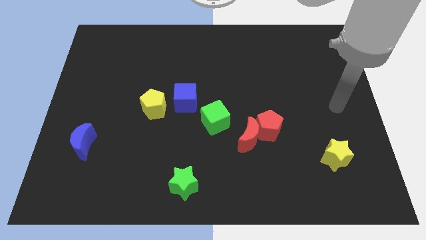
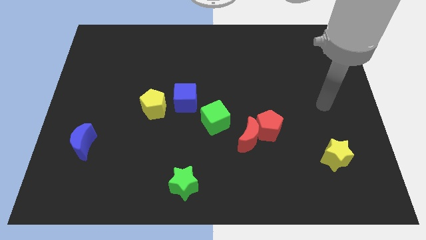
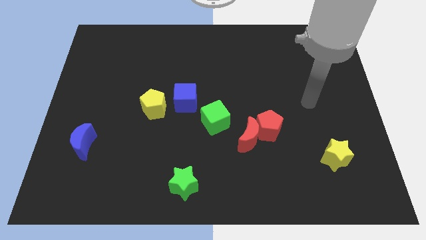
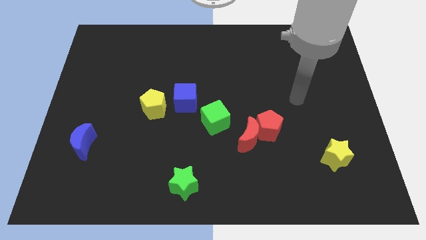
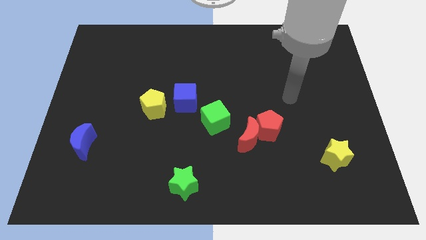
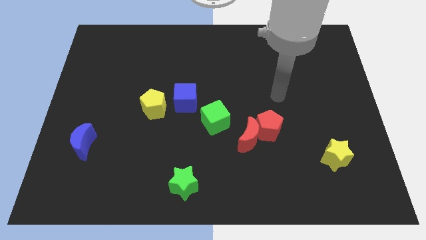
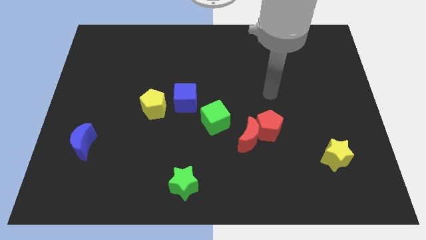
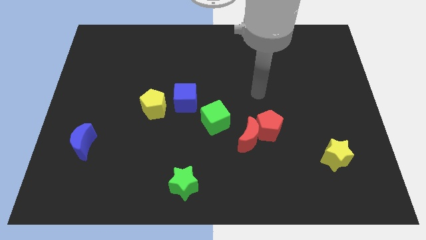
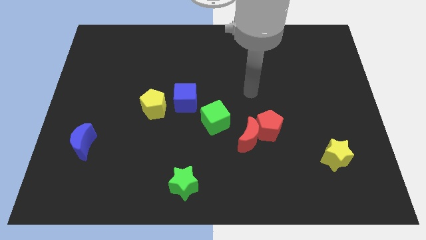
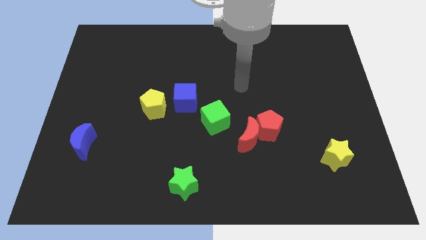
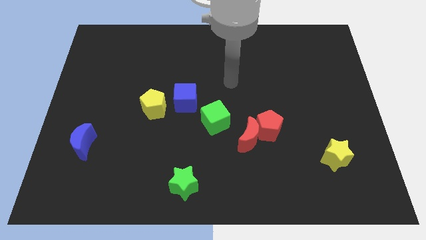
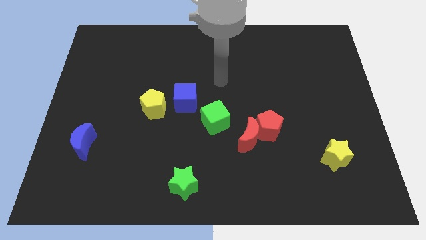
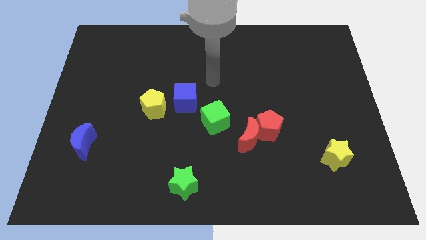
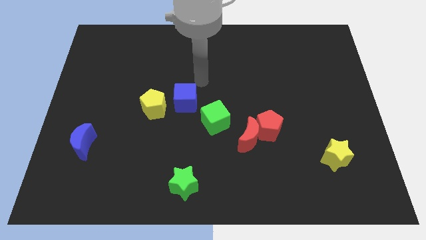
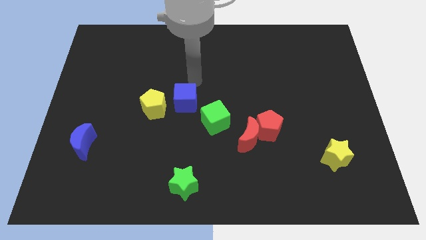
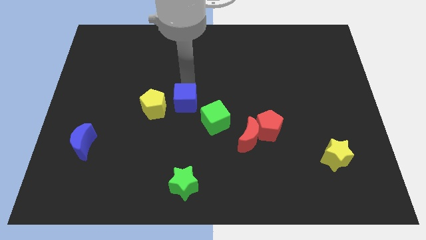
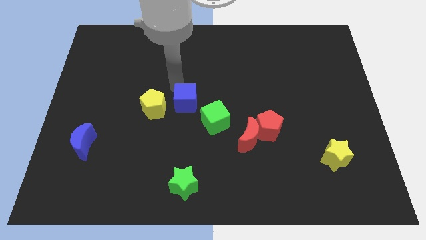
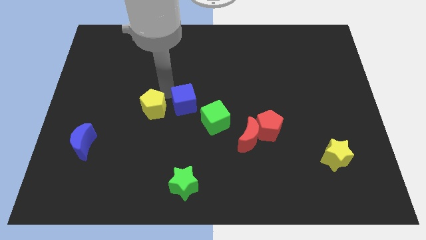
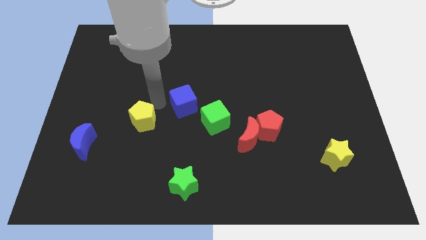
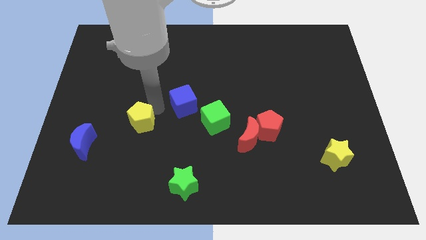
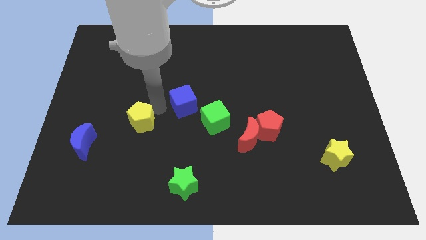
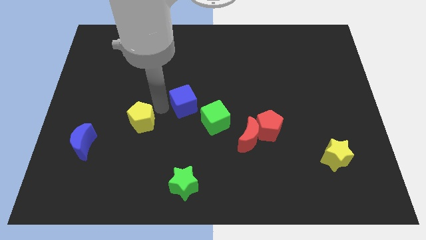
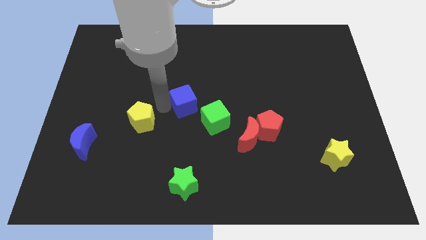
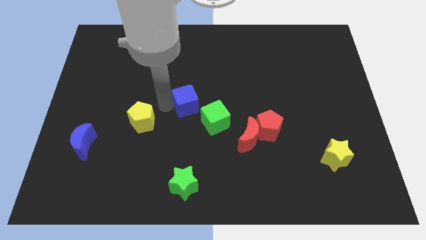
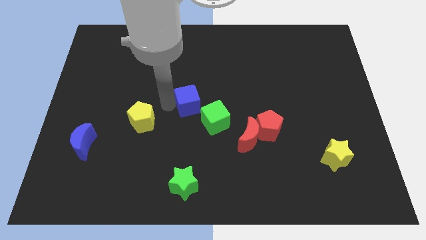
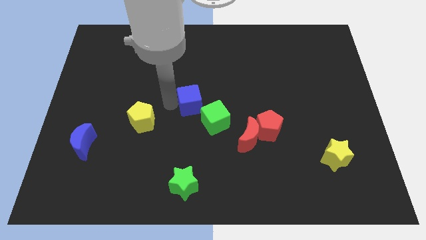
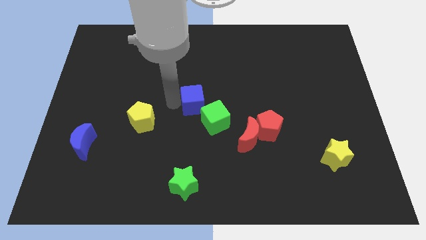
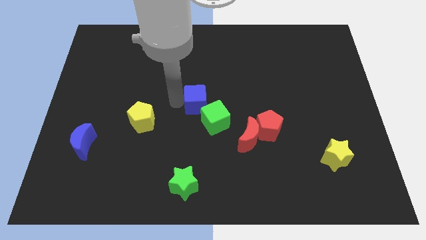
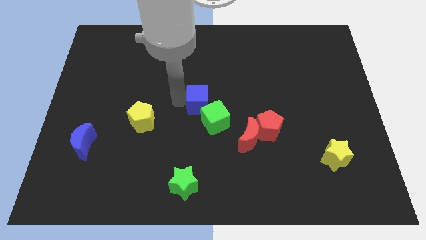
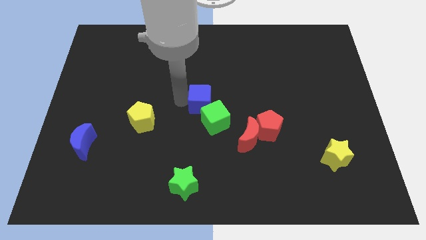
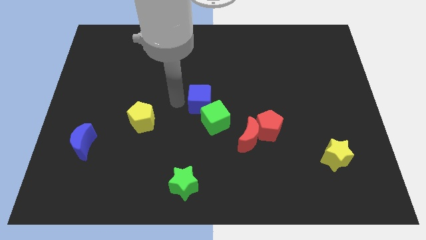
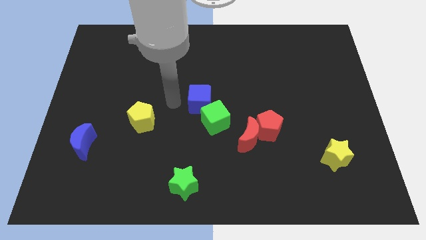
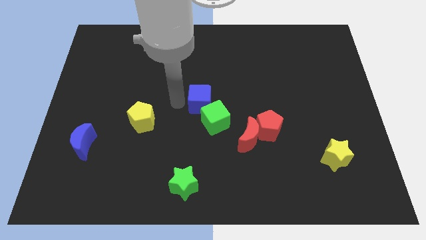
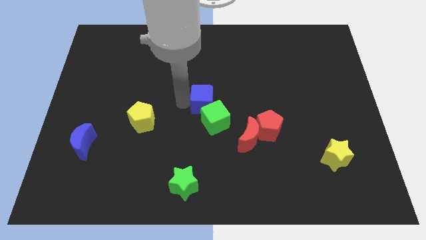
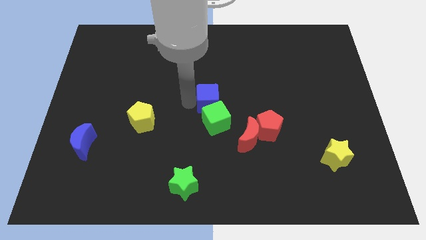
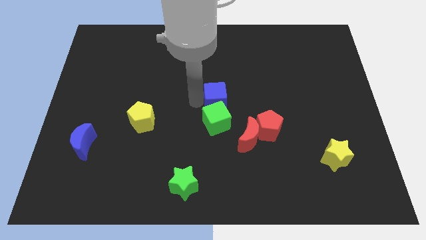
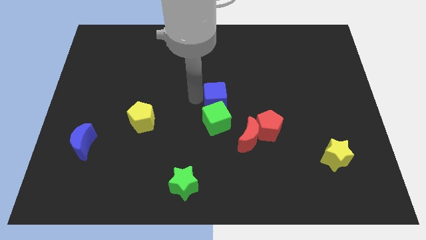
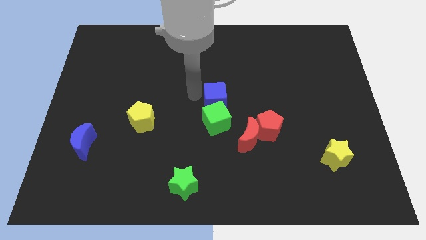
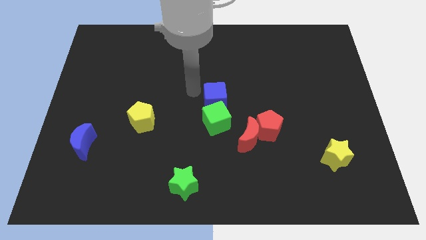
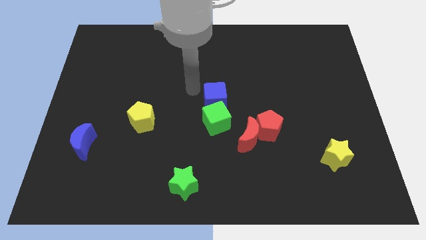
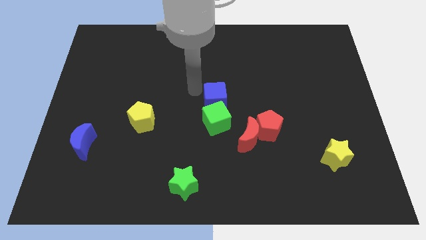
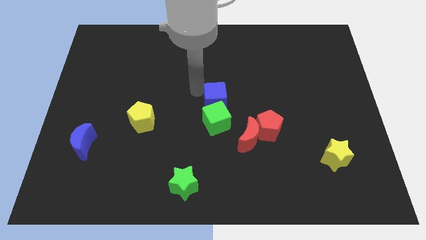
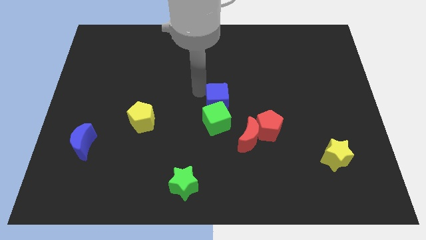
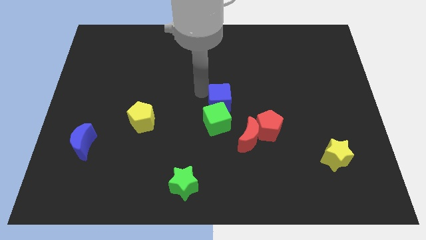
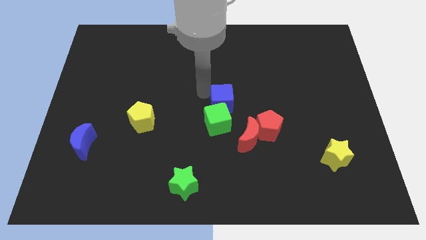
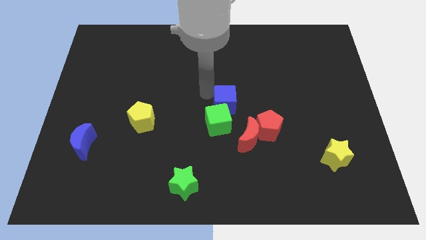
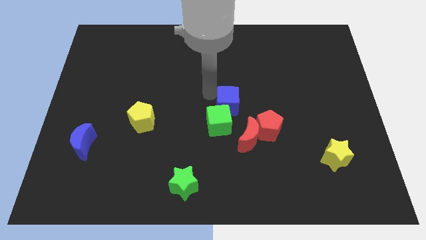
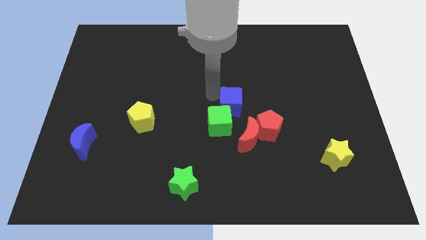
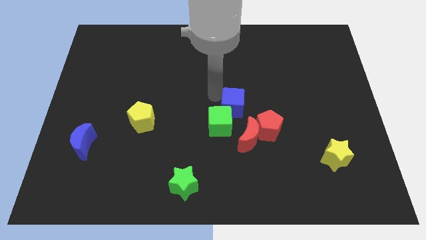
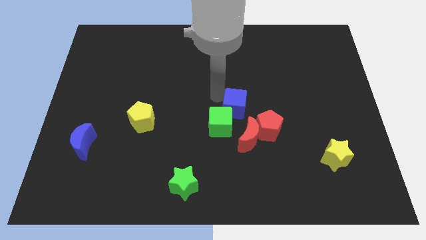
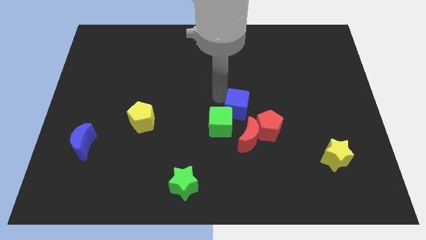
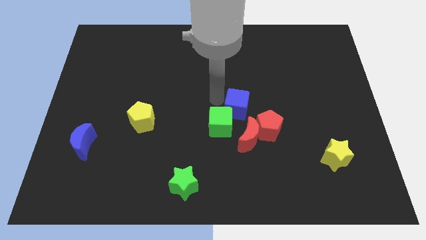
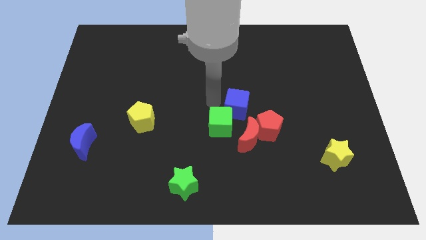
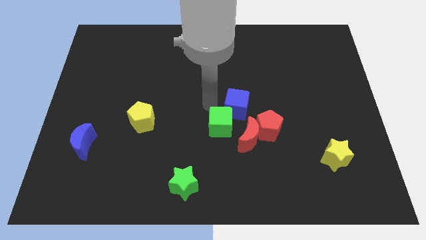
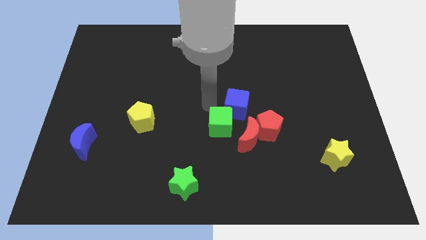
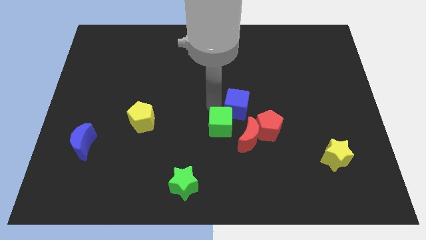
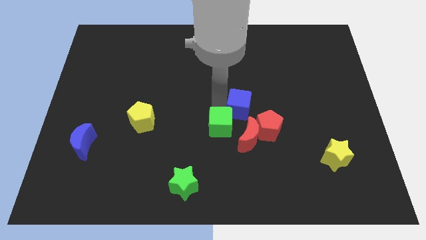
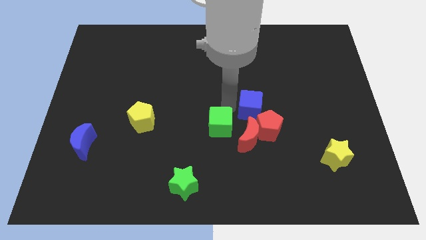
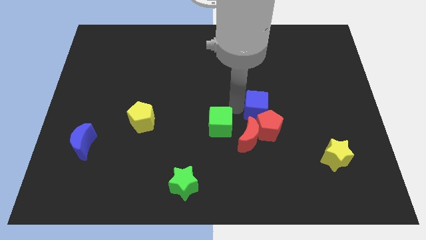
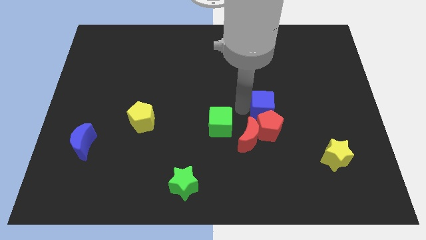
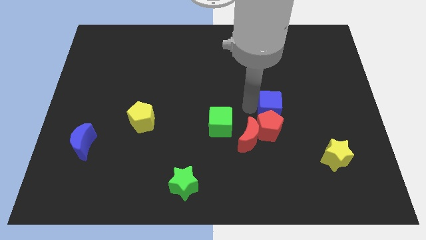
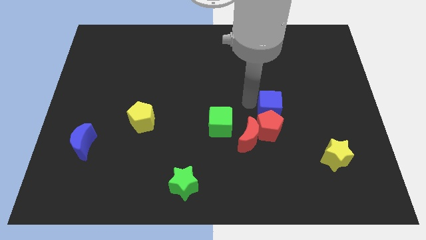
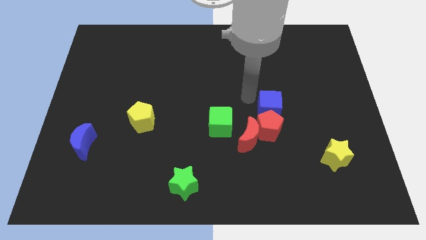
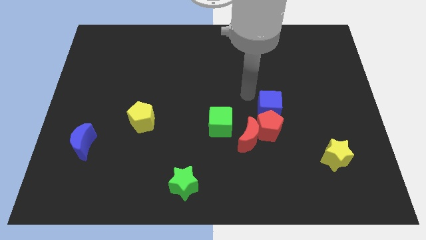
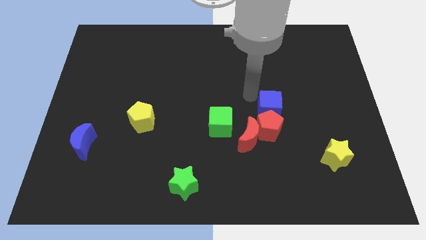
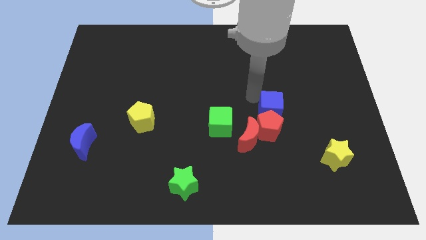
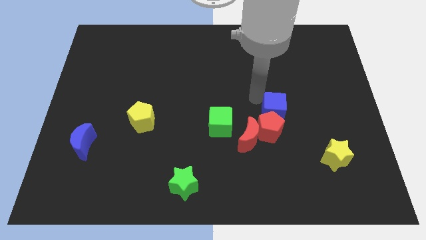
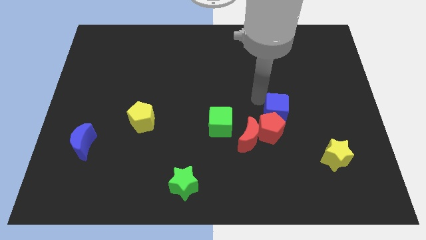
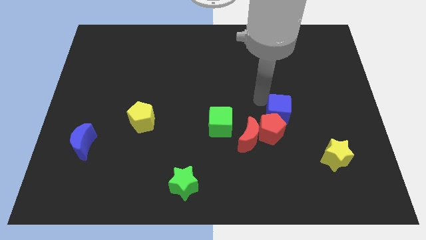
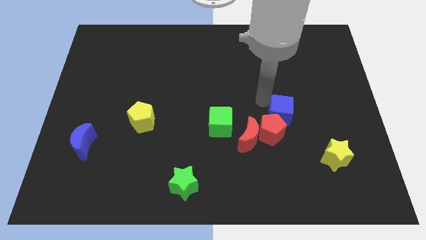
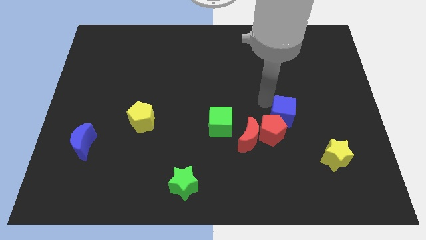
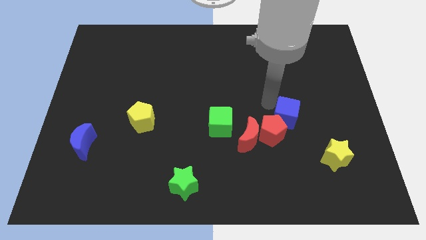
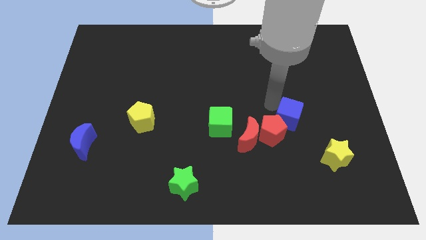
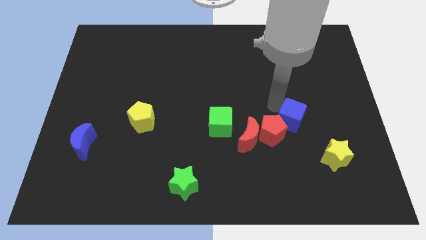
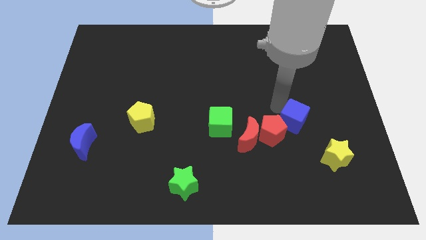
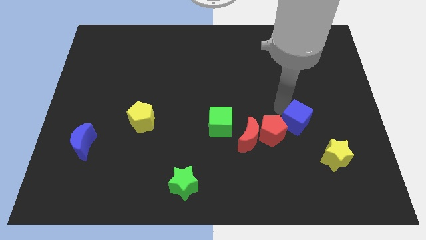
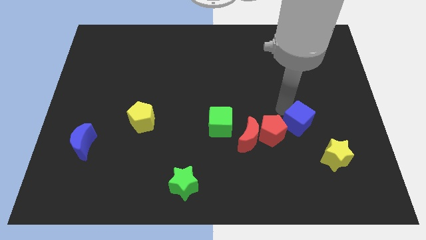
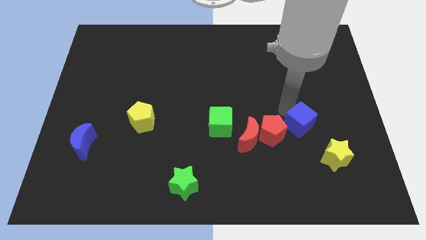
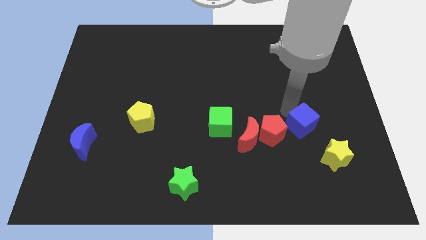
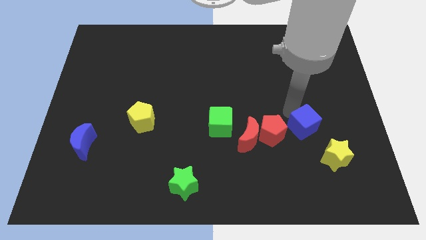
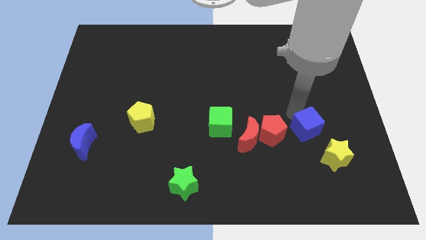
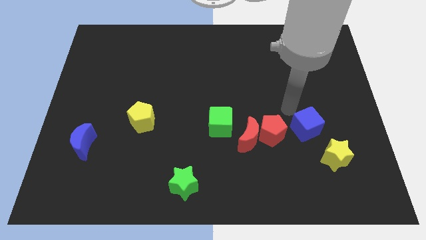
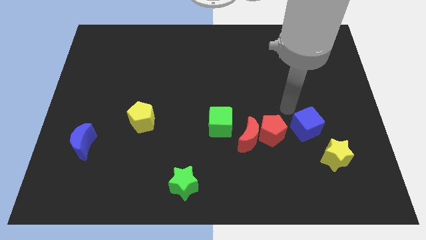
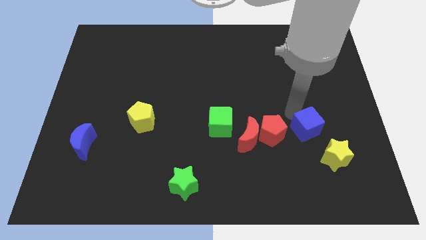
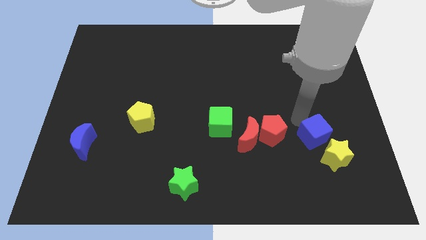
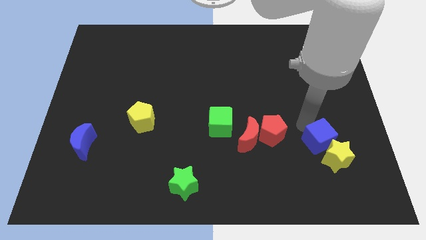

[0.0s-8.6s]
move the blue cube towards the yellow star
